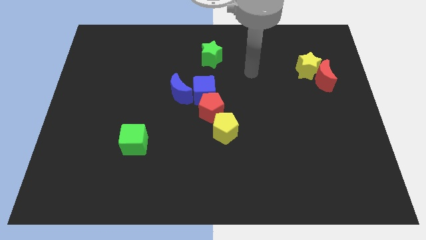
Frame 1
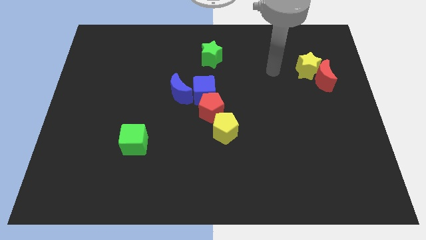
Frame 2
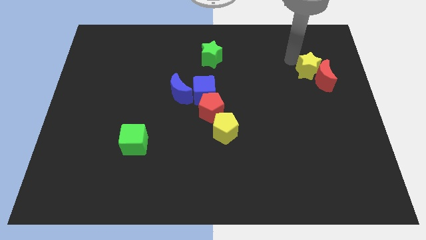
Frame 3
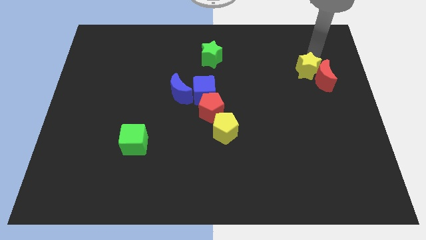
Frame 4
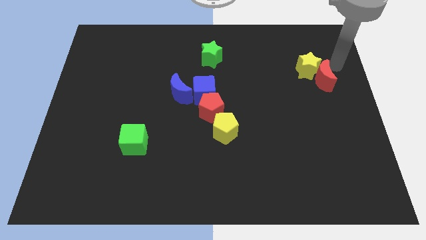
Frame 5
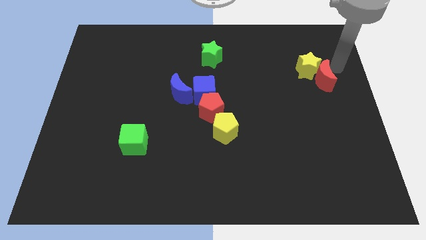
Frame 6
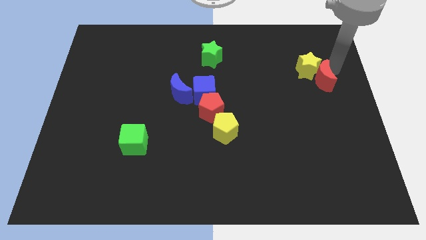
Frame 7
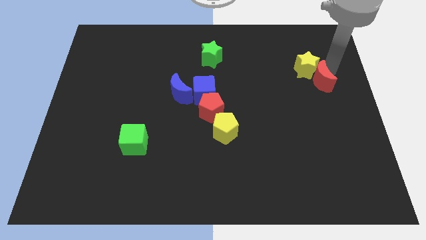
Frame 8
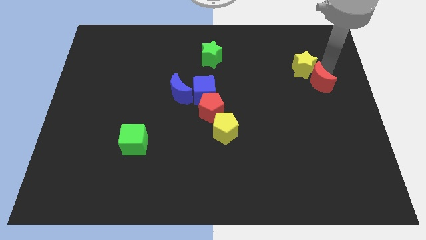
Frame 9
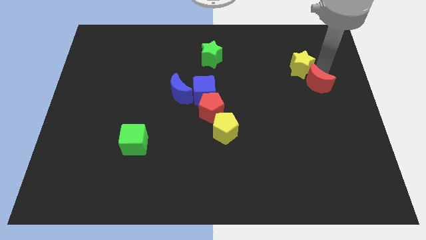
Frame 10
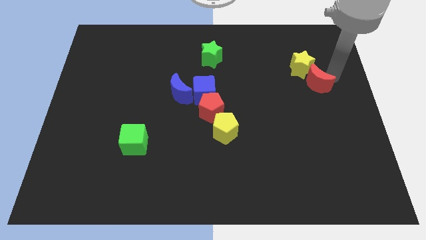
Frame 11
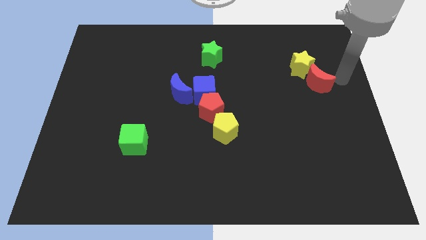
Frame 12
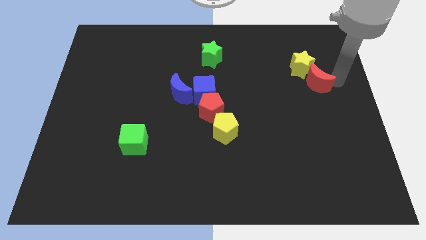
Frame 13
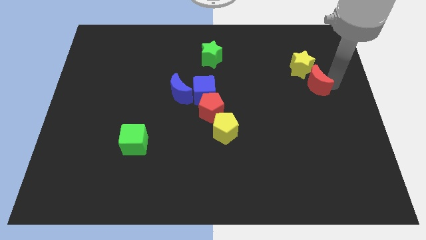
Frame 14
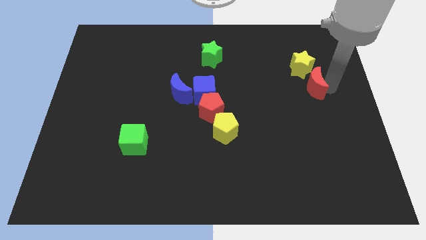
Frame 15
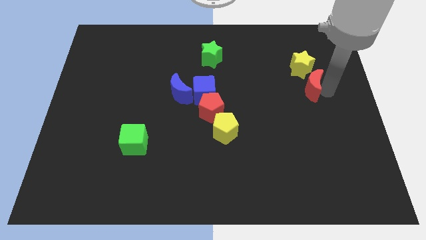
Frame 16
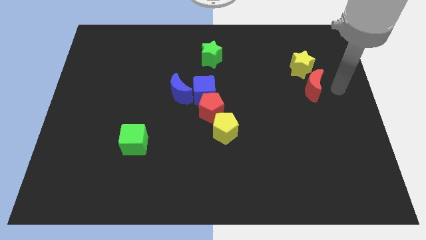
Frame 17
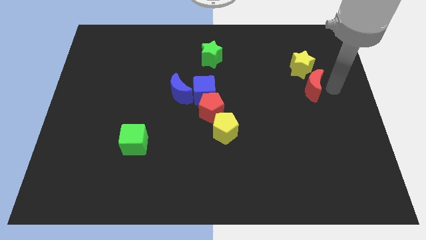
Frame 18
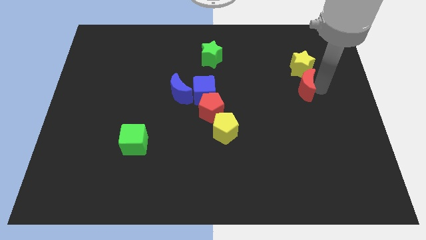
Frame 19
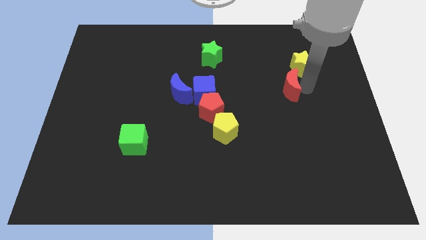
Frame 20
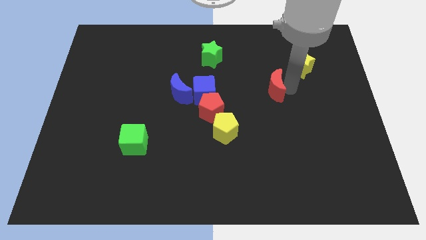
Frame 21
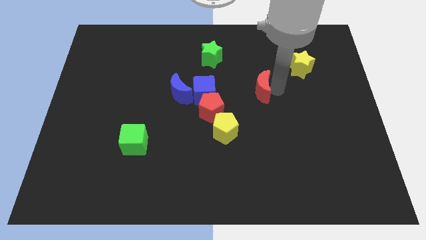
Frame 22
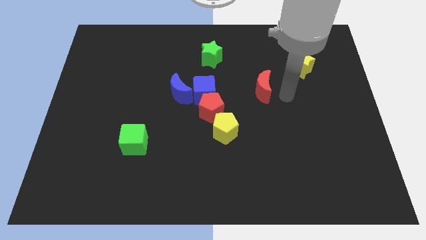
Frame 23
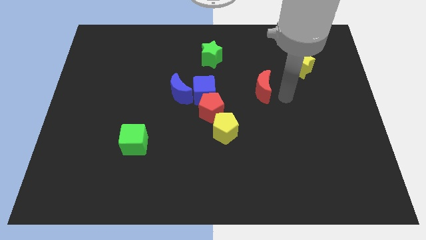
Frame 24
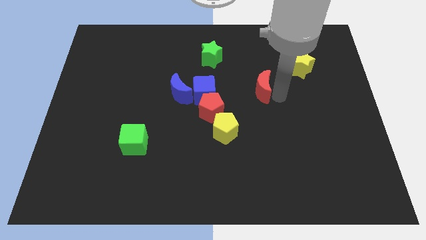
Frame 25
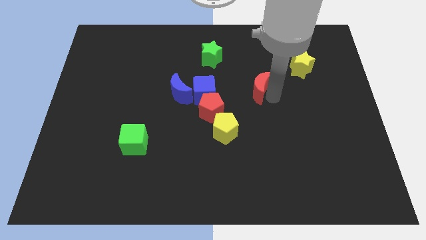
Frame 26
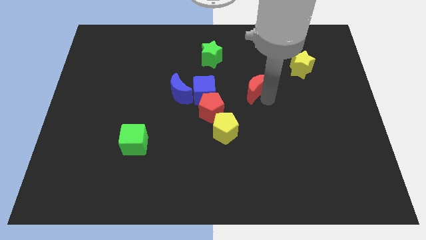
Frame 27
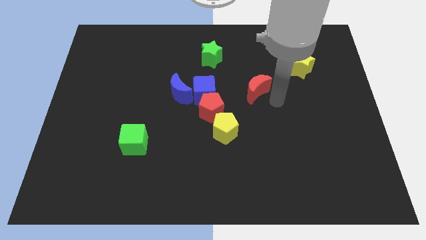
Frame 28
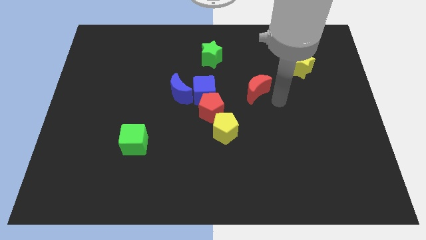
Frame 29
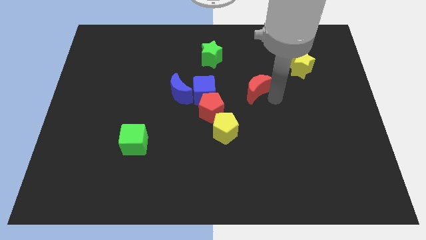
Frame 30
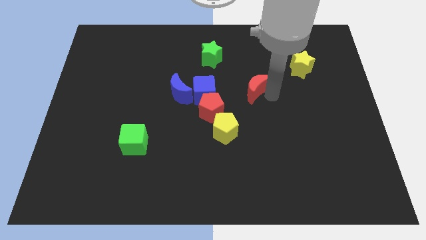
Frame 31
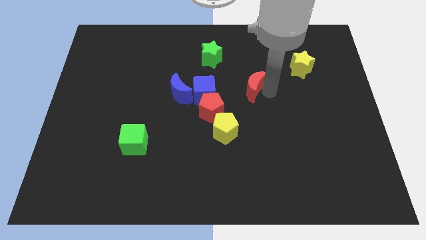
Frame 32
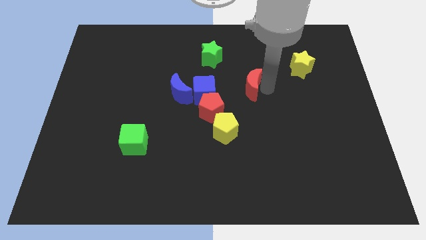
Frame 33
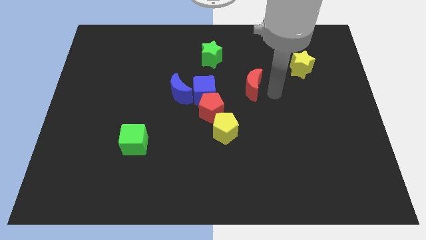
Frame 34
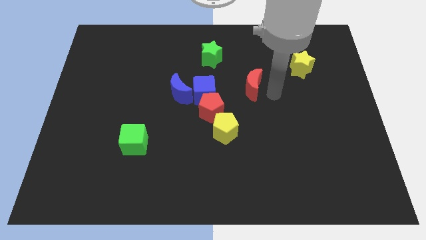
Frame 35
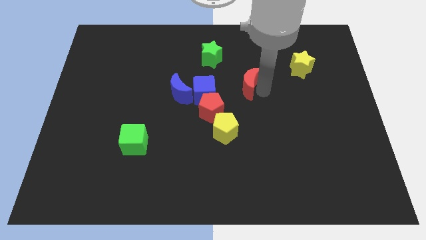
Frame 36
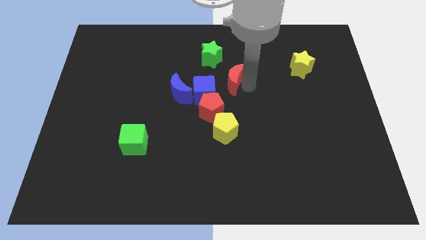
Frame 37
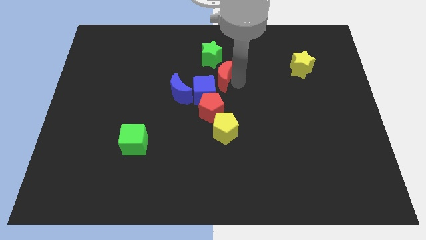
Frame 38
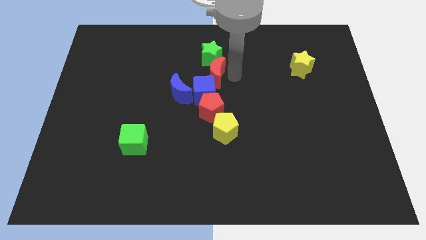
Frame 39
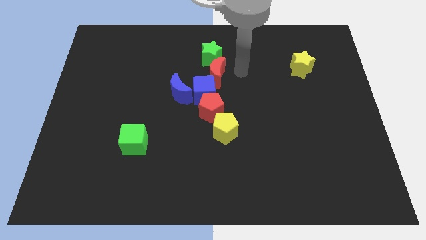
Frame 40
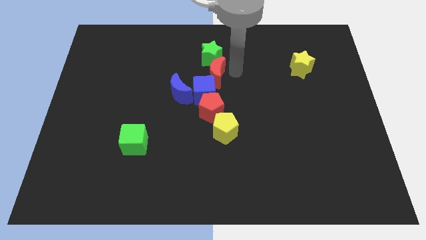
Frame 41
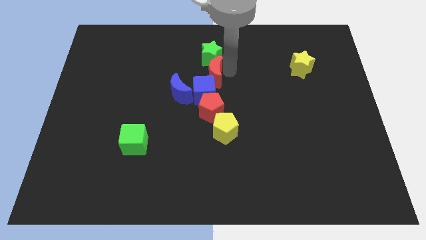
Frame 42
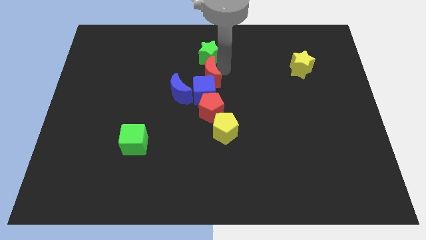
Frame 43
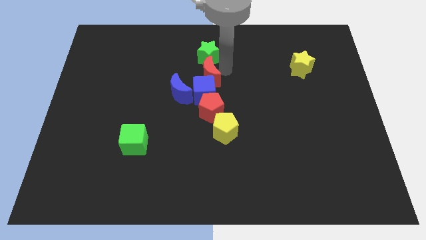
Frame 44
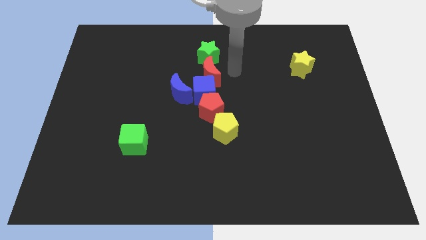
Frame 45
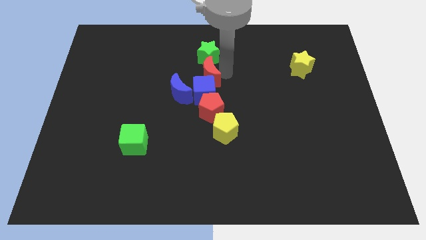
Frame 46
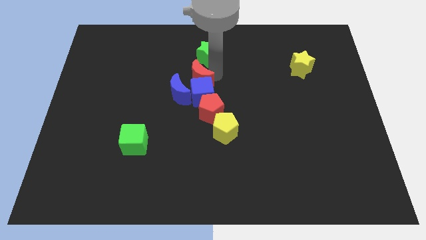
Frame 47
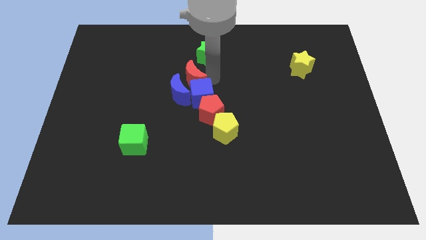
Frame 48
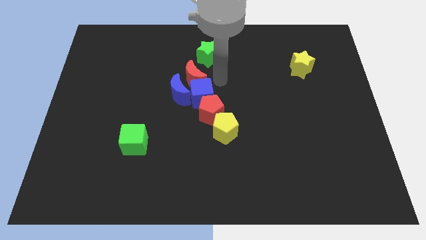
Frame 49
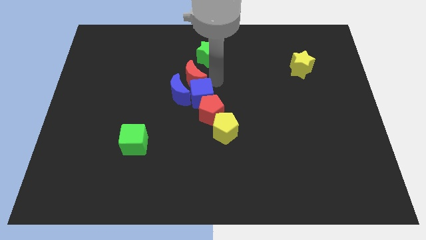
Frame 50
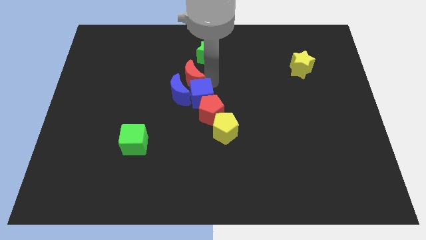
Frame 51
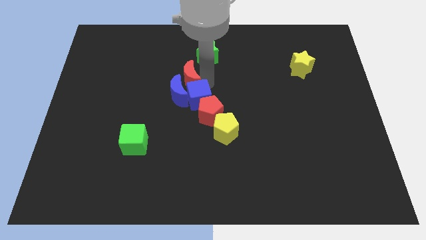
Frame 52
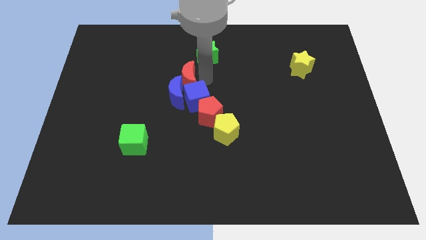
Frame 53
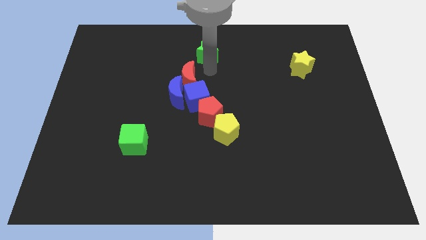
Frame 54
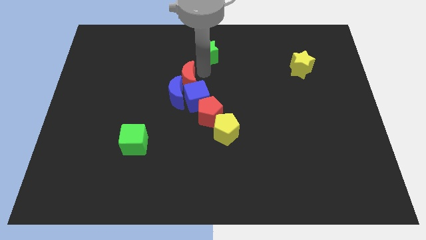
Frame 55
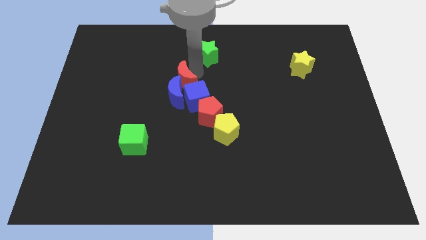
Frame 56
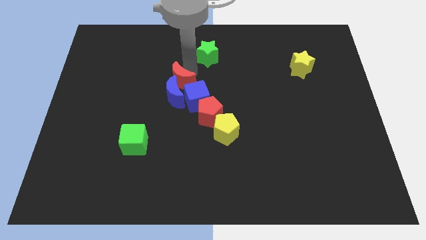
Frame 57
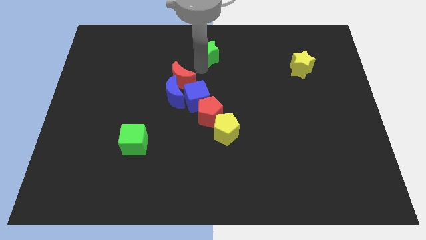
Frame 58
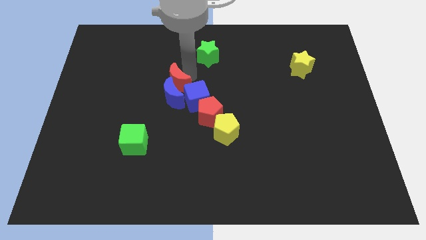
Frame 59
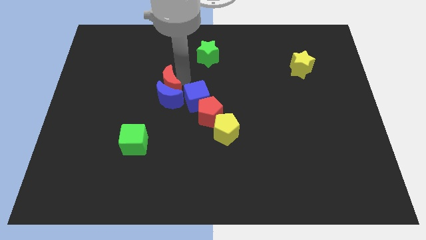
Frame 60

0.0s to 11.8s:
put the red moon left of the blue cube

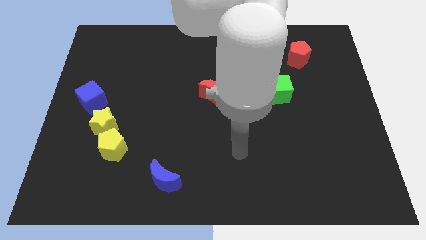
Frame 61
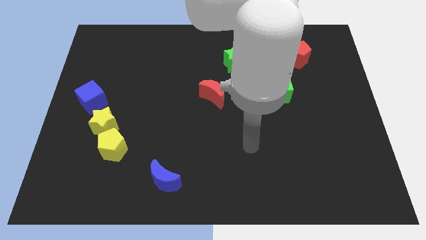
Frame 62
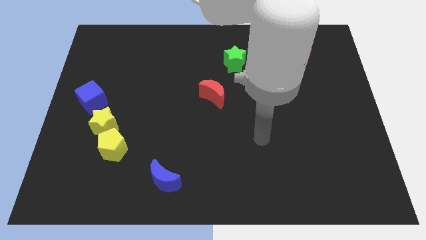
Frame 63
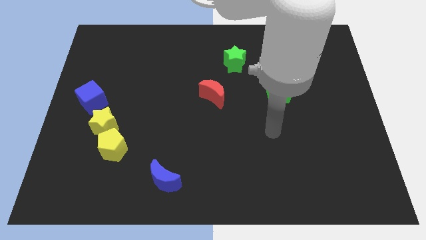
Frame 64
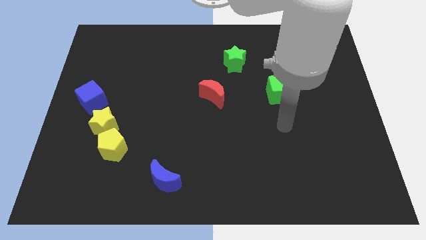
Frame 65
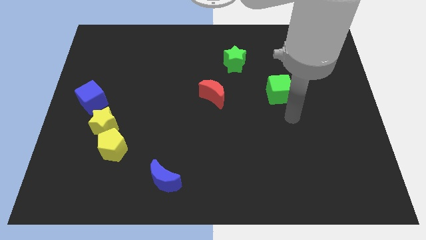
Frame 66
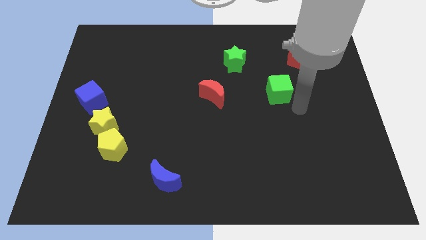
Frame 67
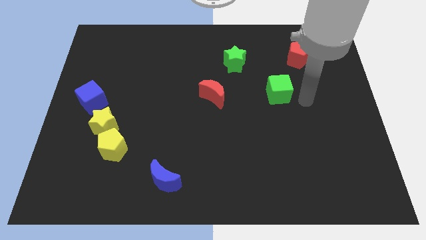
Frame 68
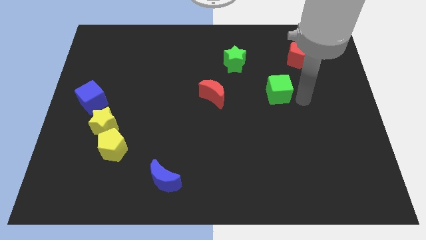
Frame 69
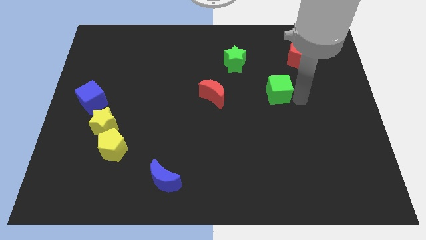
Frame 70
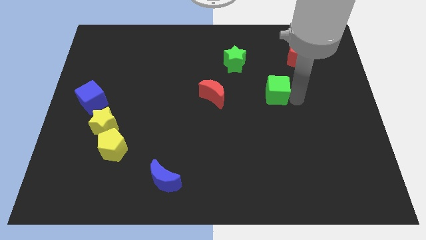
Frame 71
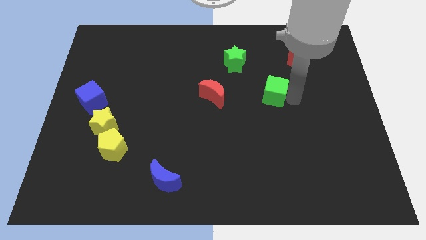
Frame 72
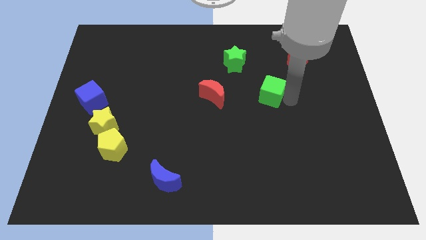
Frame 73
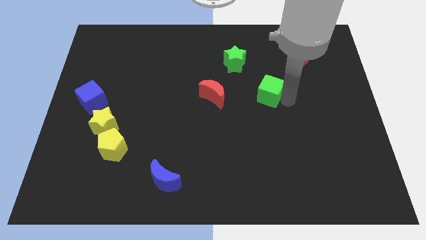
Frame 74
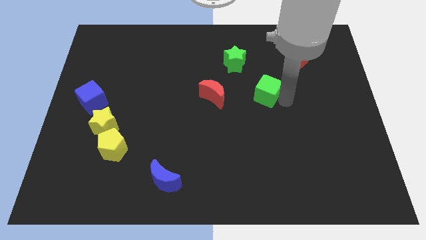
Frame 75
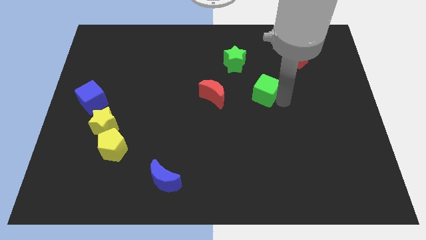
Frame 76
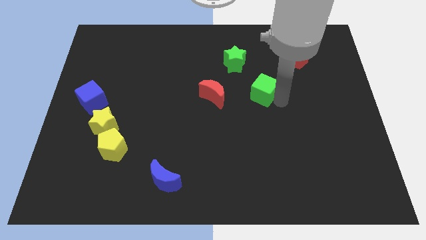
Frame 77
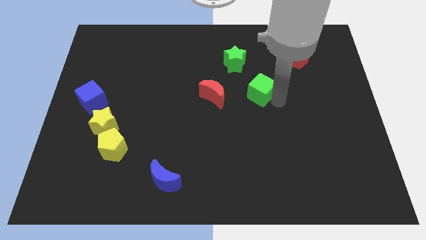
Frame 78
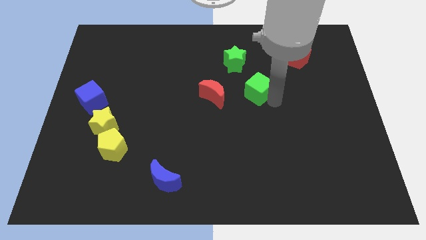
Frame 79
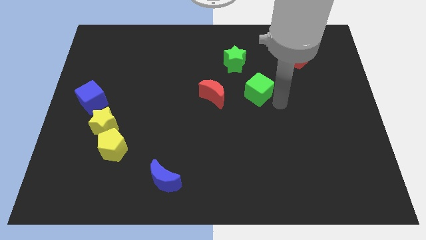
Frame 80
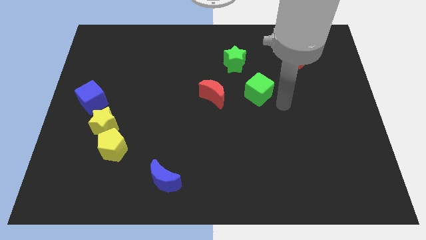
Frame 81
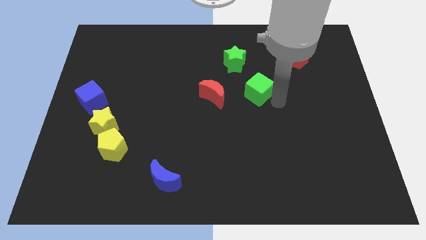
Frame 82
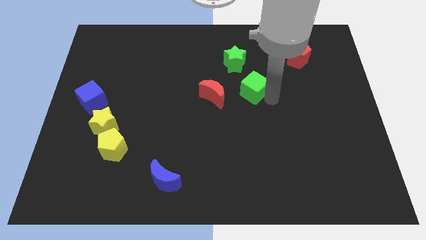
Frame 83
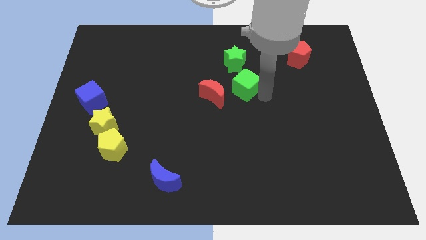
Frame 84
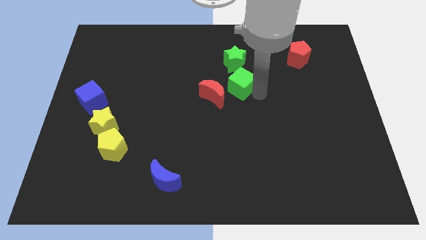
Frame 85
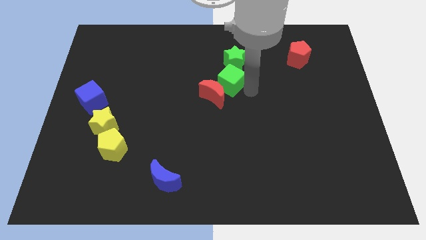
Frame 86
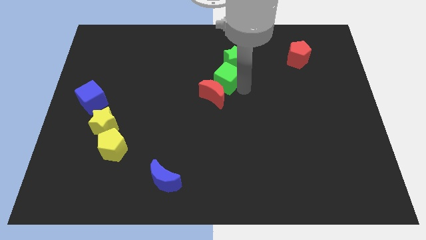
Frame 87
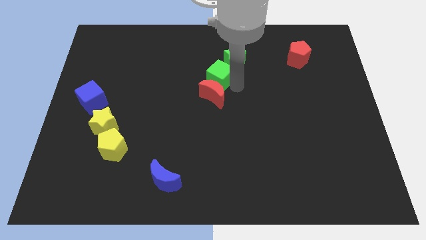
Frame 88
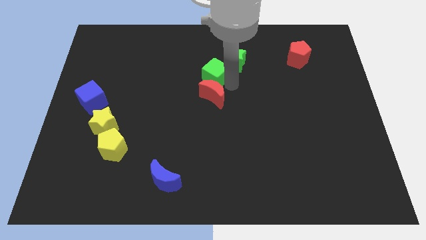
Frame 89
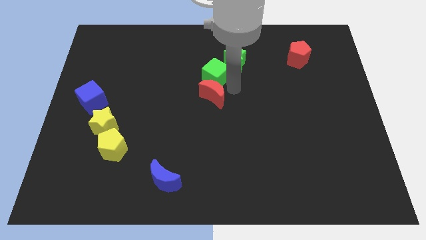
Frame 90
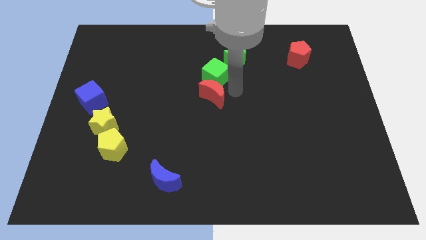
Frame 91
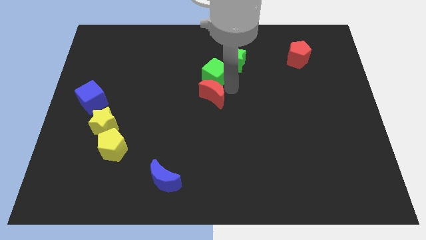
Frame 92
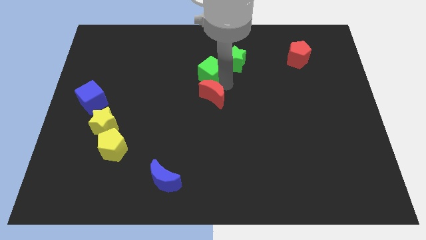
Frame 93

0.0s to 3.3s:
push the green cube just left of the green star
